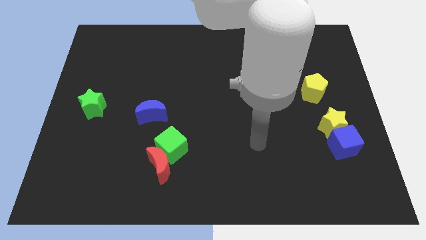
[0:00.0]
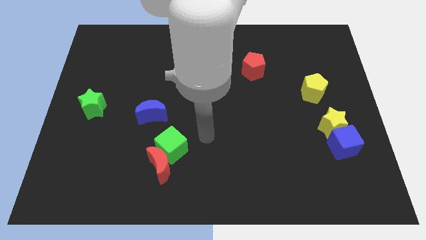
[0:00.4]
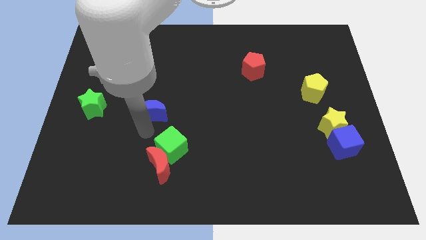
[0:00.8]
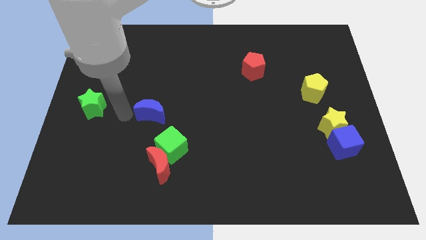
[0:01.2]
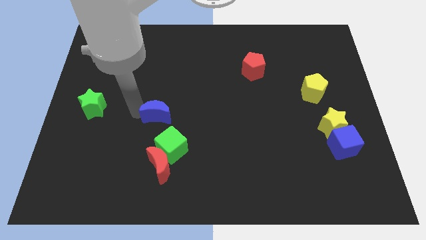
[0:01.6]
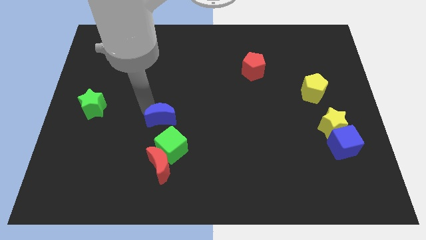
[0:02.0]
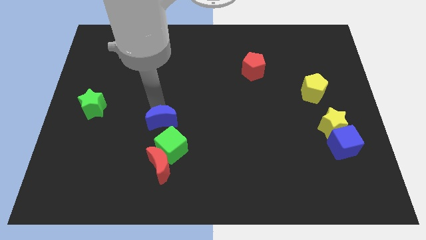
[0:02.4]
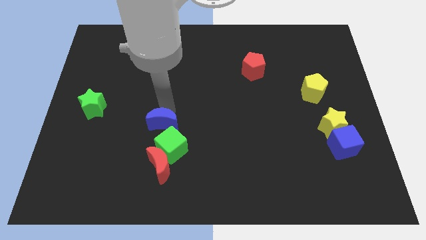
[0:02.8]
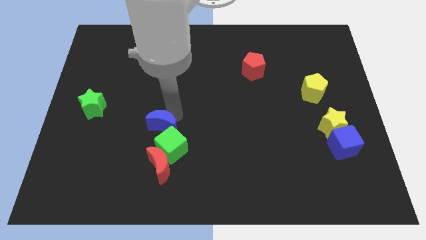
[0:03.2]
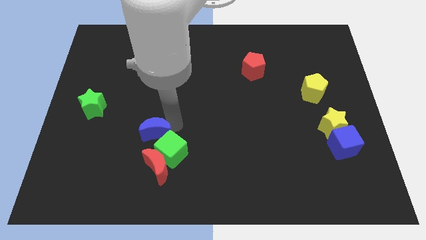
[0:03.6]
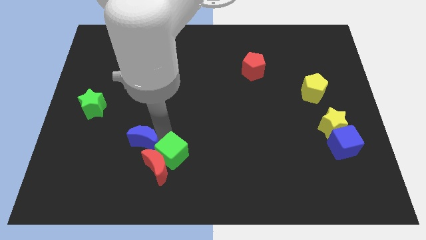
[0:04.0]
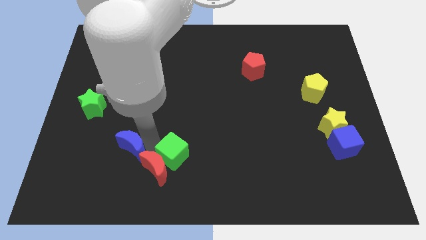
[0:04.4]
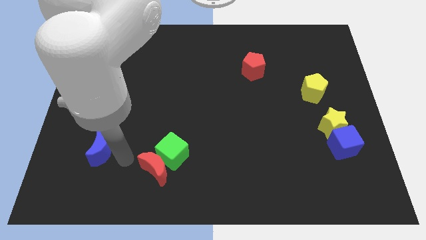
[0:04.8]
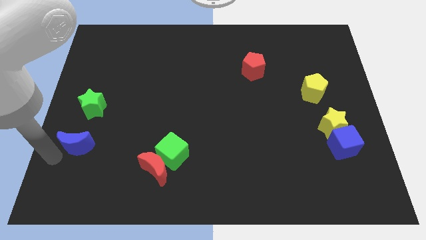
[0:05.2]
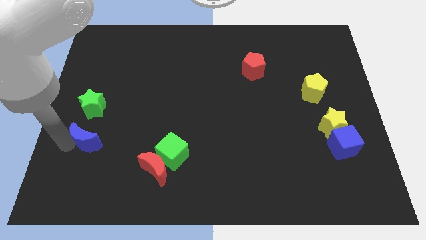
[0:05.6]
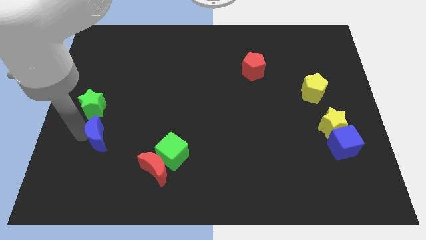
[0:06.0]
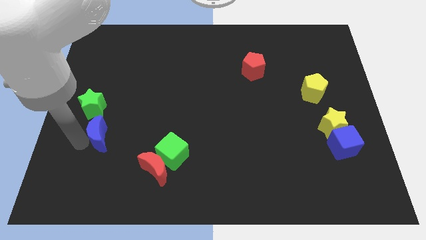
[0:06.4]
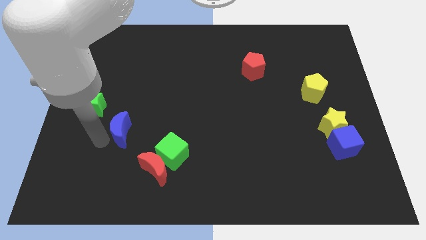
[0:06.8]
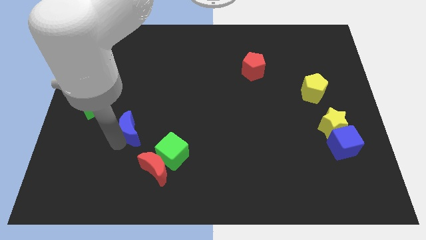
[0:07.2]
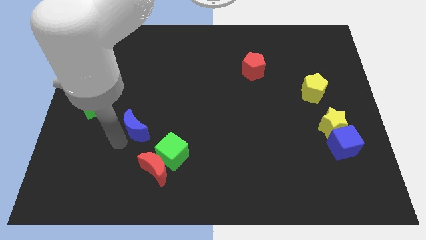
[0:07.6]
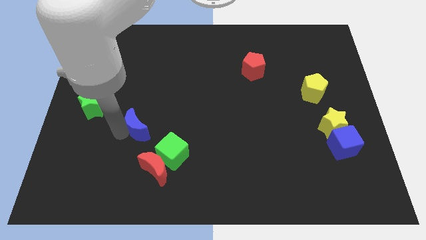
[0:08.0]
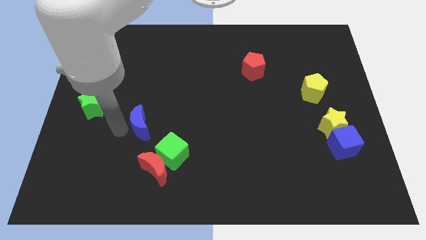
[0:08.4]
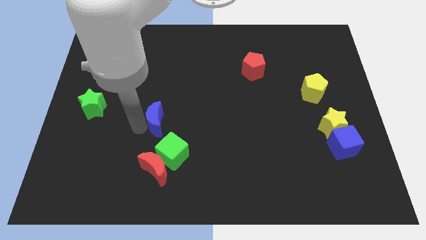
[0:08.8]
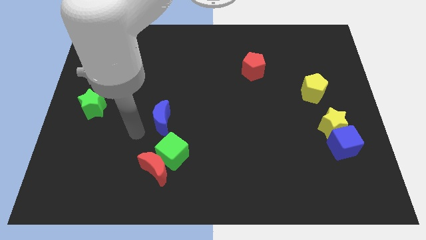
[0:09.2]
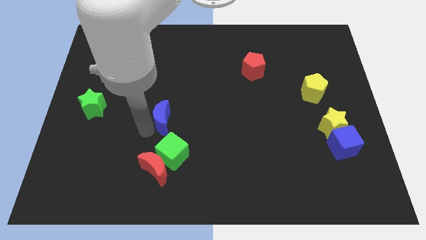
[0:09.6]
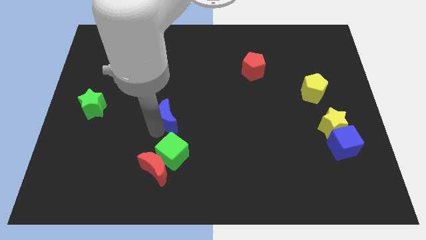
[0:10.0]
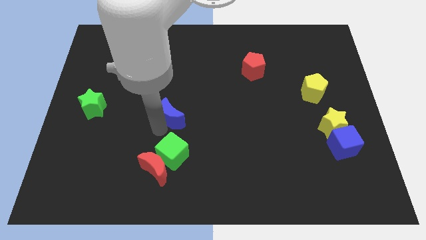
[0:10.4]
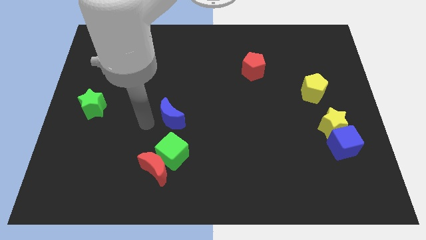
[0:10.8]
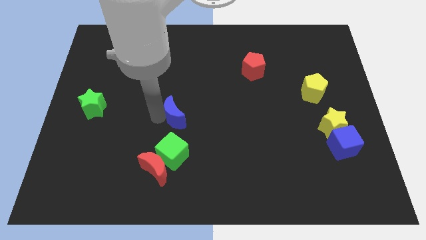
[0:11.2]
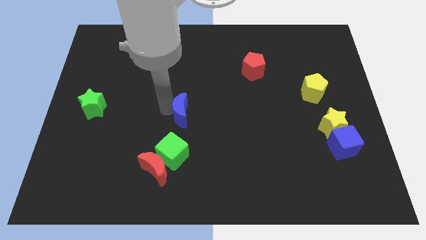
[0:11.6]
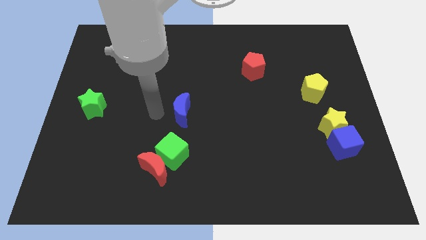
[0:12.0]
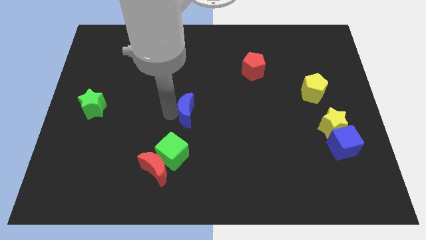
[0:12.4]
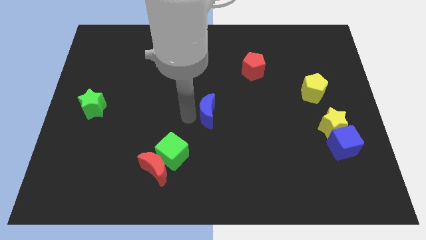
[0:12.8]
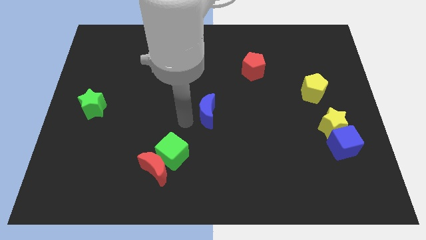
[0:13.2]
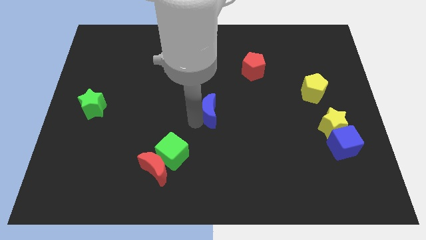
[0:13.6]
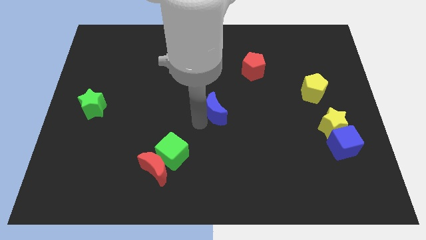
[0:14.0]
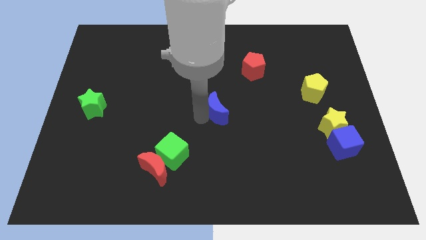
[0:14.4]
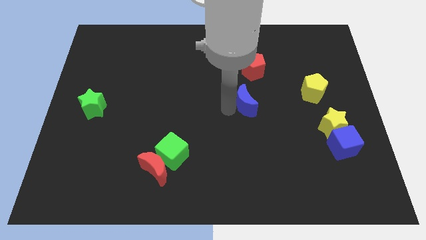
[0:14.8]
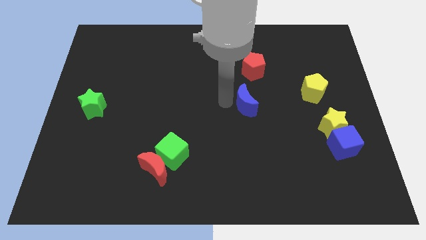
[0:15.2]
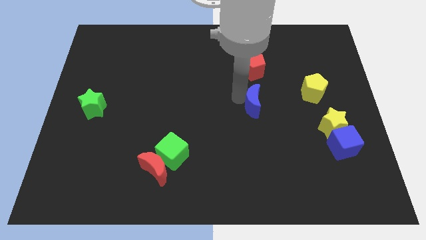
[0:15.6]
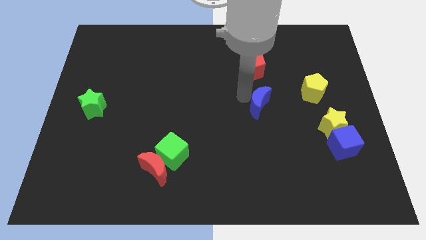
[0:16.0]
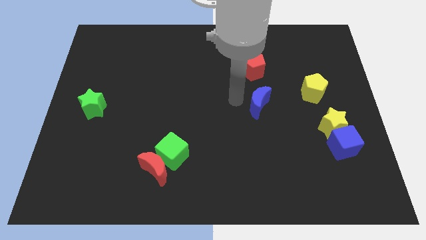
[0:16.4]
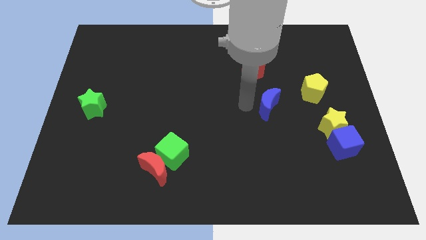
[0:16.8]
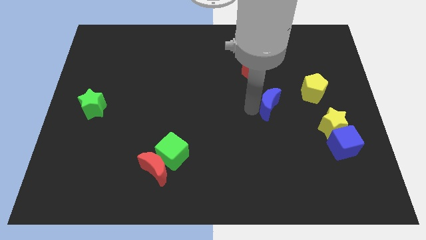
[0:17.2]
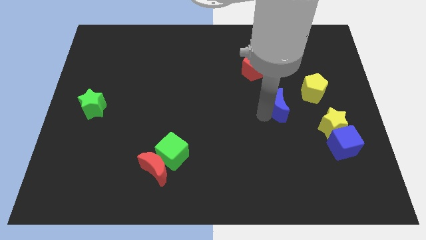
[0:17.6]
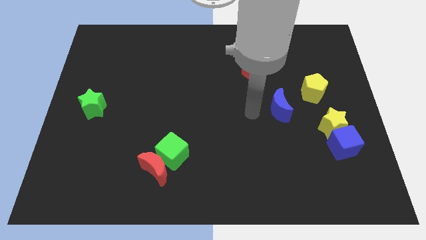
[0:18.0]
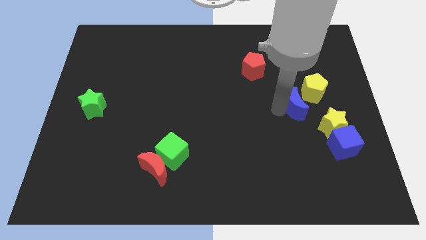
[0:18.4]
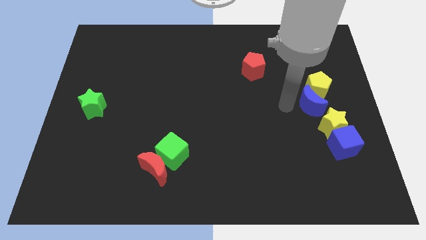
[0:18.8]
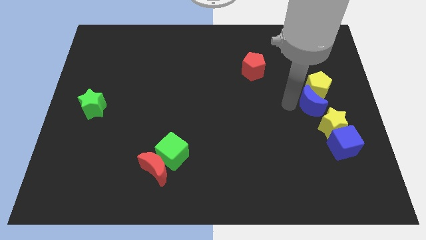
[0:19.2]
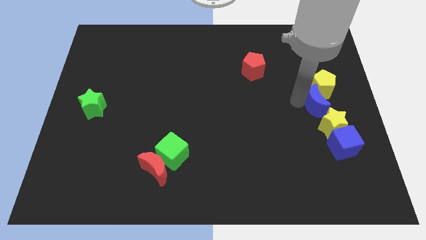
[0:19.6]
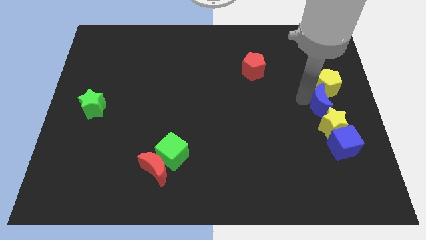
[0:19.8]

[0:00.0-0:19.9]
slide the blue moon to the right side of the board

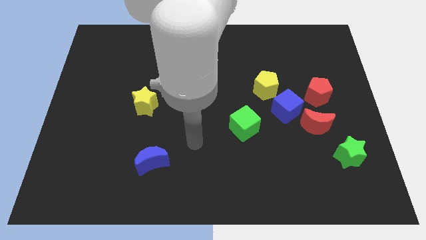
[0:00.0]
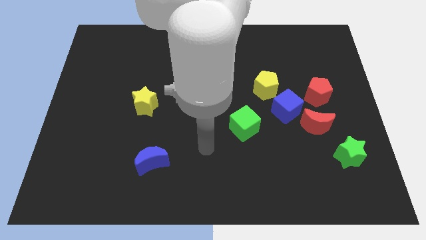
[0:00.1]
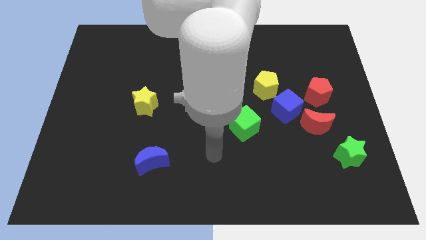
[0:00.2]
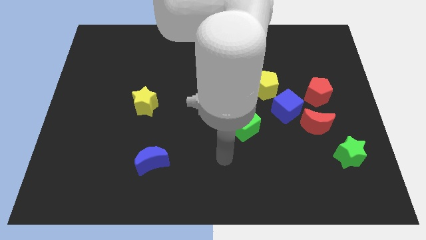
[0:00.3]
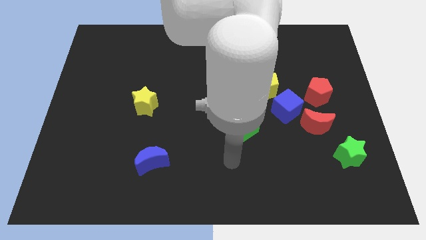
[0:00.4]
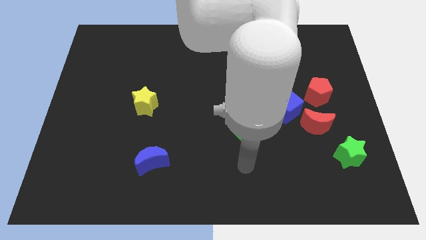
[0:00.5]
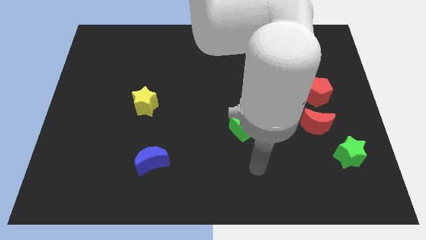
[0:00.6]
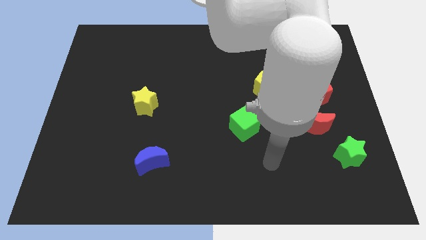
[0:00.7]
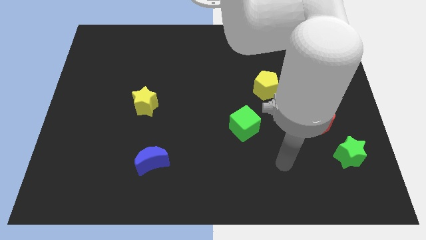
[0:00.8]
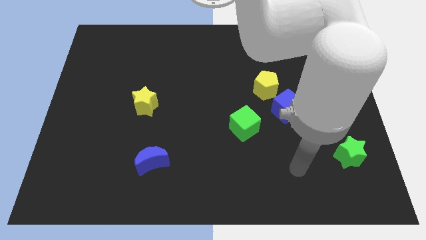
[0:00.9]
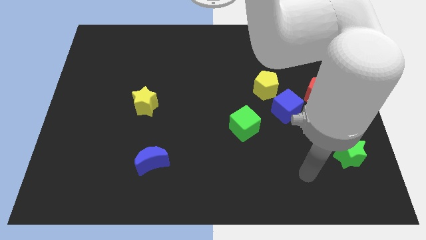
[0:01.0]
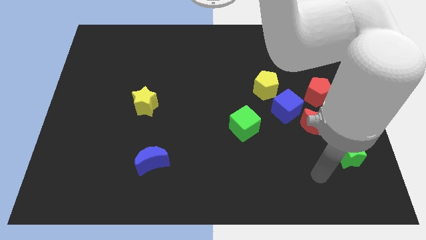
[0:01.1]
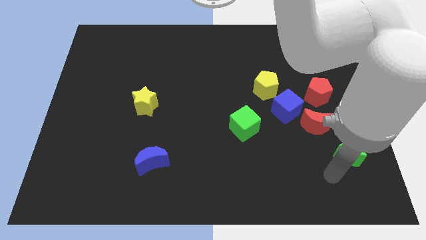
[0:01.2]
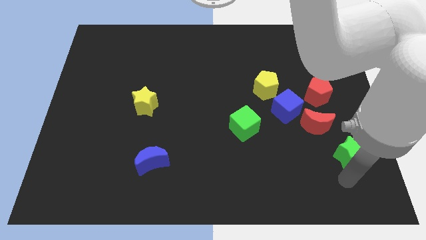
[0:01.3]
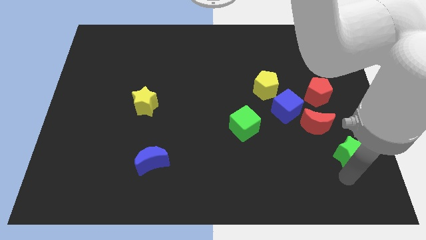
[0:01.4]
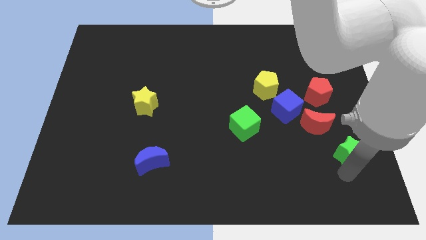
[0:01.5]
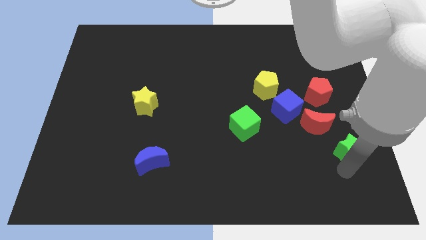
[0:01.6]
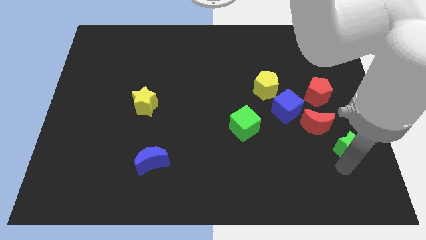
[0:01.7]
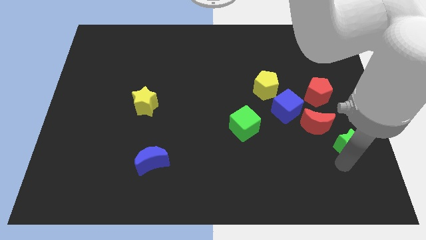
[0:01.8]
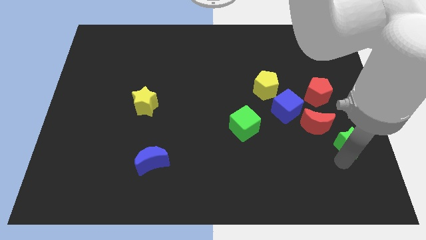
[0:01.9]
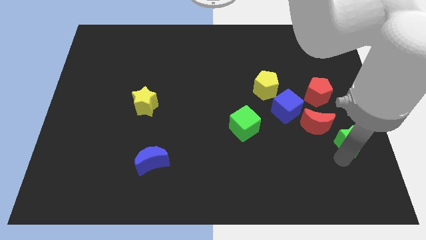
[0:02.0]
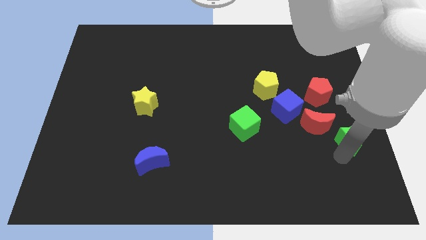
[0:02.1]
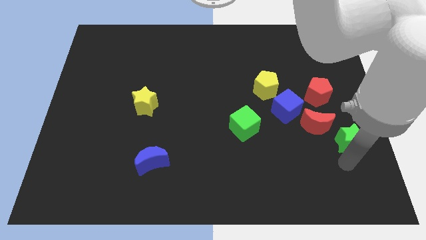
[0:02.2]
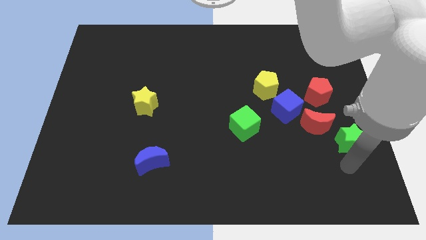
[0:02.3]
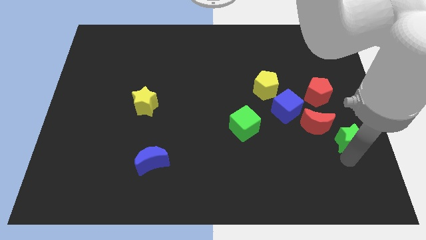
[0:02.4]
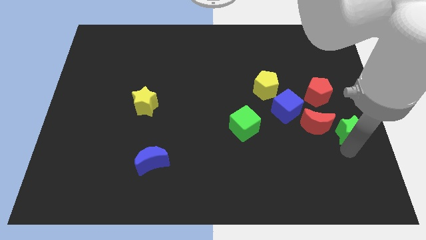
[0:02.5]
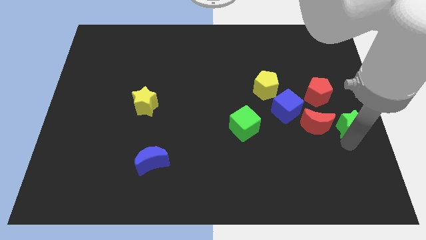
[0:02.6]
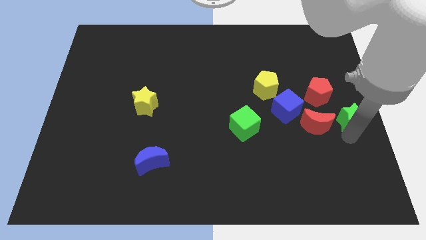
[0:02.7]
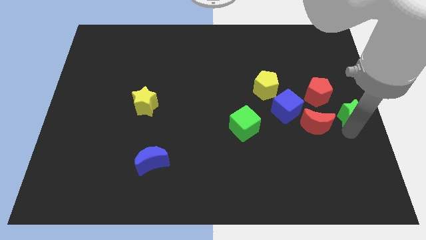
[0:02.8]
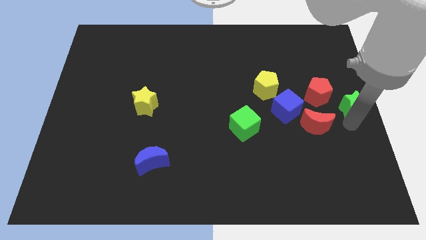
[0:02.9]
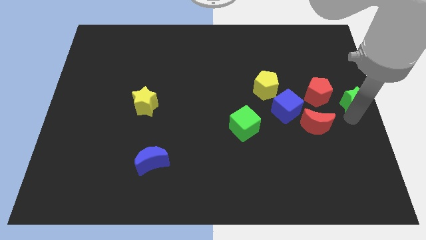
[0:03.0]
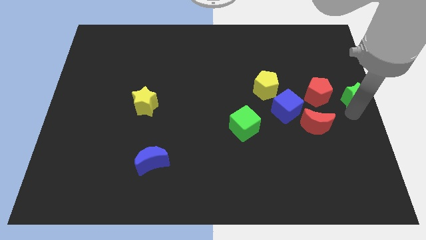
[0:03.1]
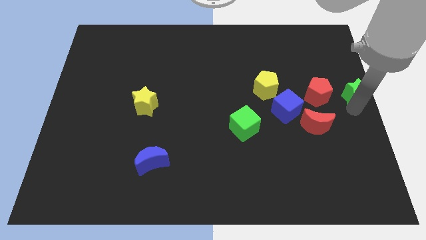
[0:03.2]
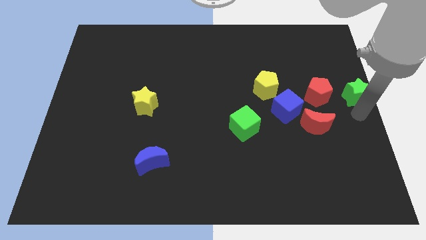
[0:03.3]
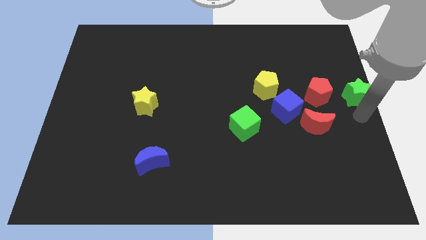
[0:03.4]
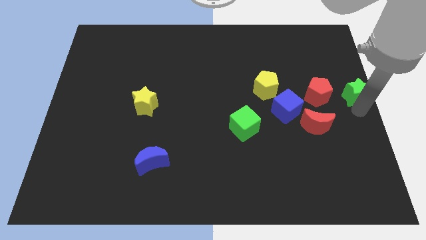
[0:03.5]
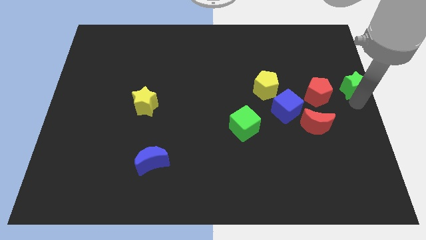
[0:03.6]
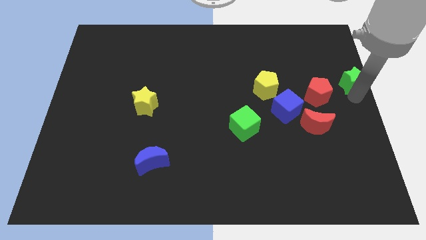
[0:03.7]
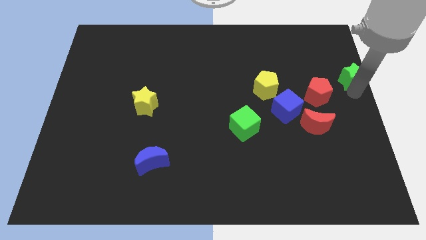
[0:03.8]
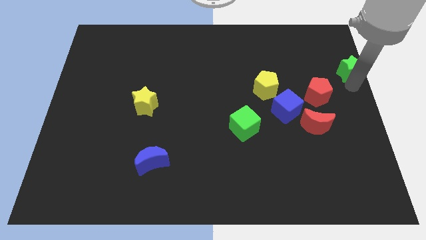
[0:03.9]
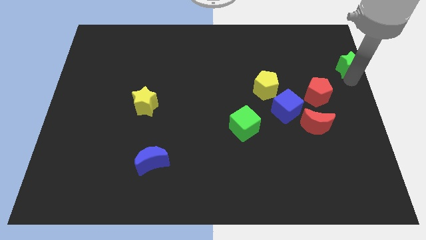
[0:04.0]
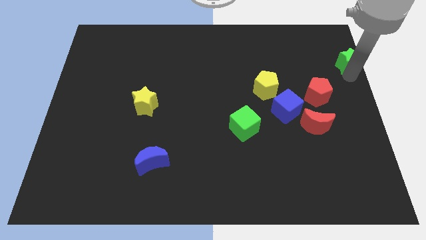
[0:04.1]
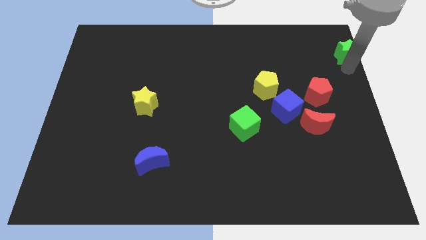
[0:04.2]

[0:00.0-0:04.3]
push the green star to the upper right corner
